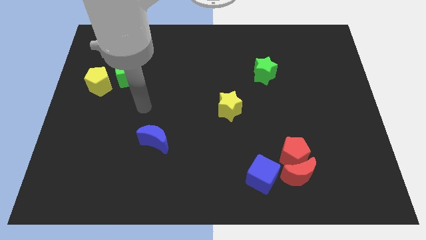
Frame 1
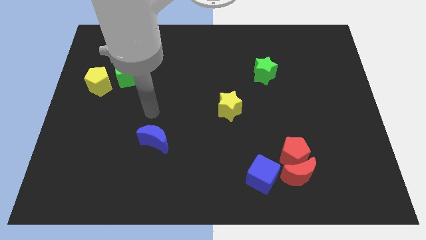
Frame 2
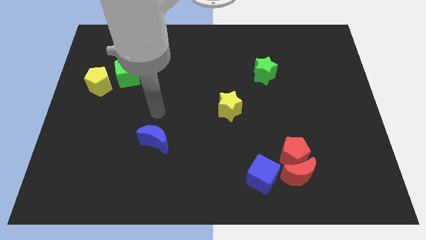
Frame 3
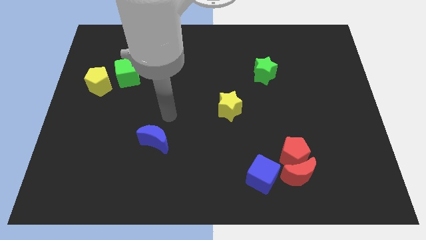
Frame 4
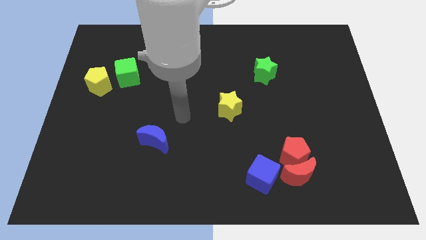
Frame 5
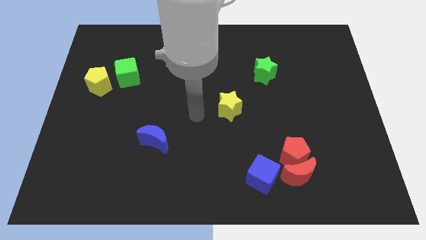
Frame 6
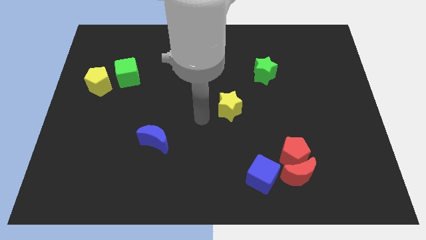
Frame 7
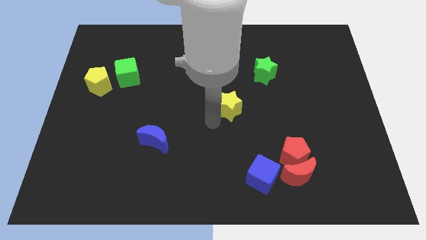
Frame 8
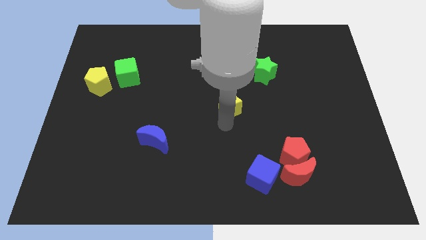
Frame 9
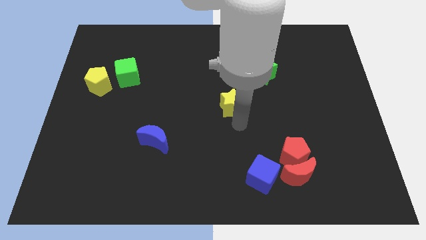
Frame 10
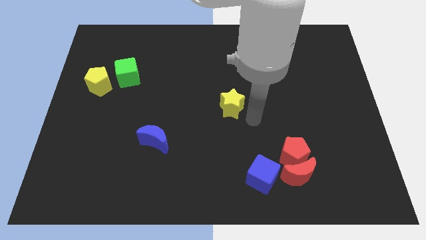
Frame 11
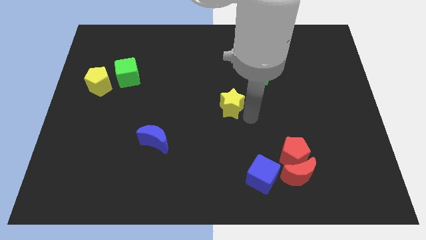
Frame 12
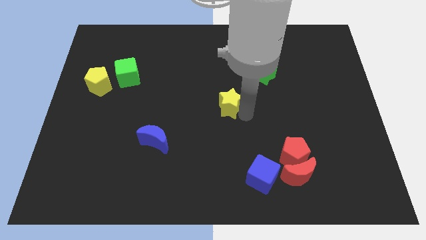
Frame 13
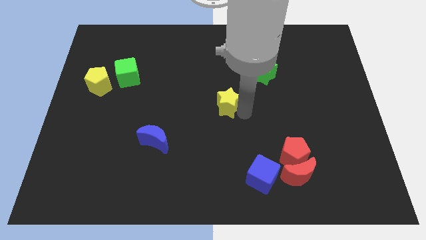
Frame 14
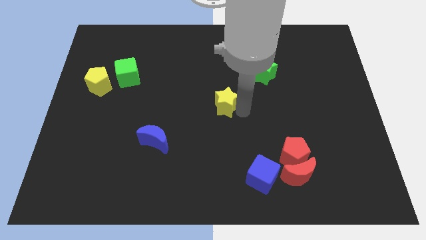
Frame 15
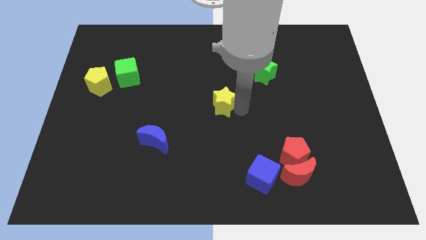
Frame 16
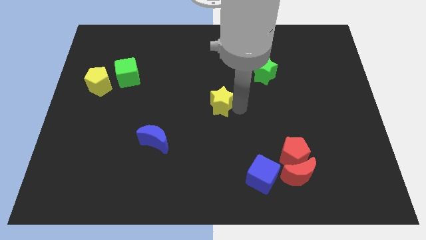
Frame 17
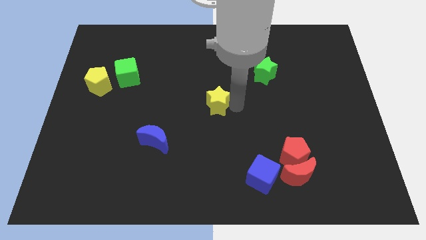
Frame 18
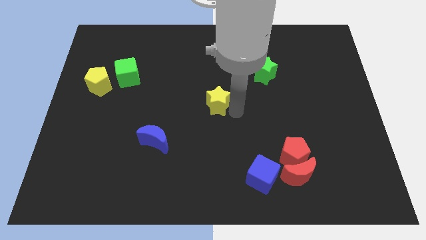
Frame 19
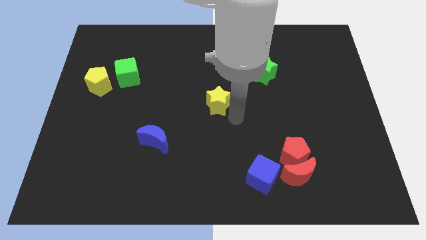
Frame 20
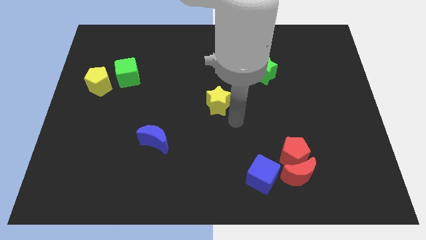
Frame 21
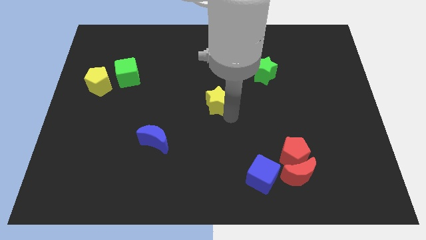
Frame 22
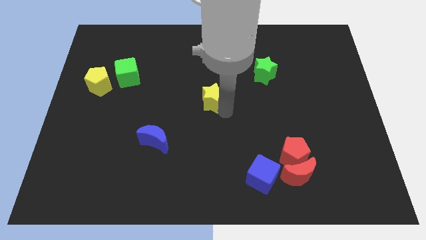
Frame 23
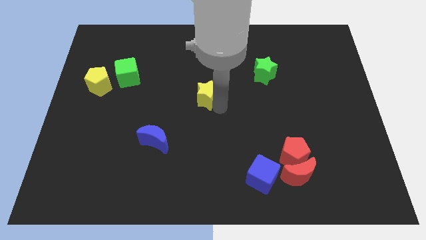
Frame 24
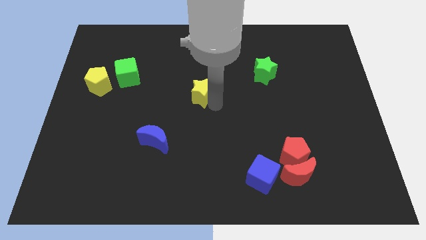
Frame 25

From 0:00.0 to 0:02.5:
slide the yellow star a little diagonally upwards and left

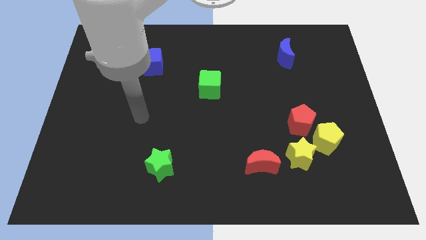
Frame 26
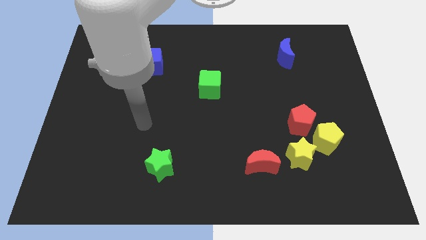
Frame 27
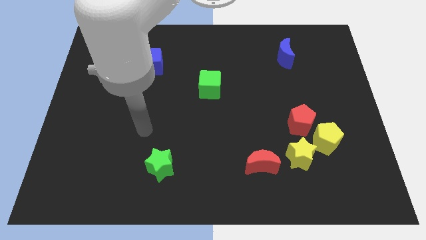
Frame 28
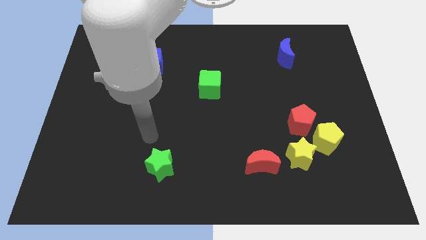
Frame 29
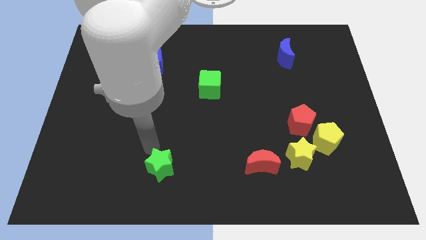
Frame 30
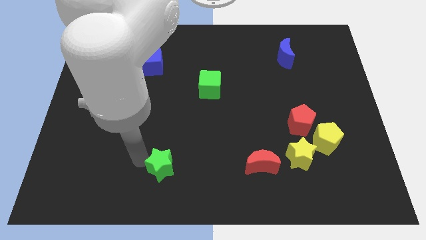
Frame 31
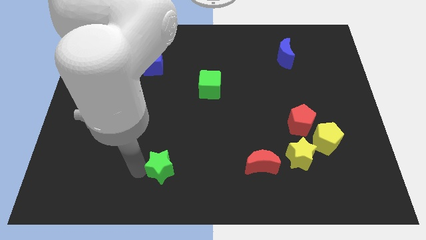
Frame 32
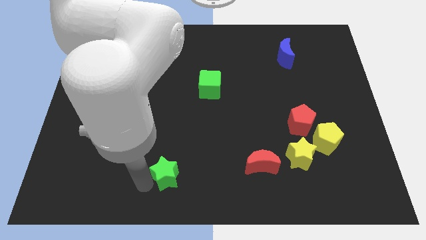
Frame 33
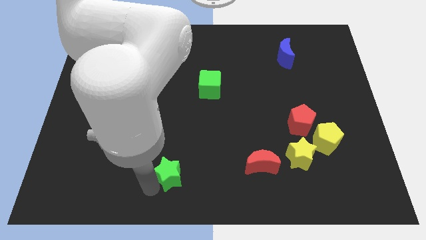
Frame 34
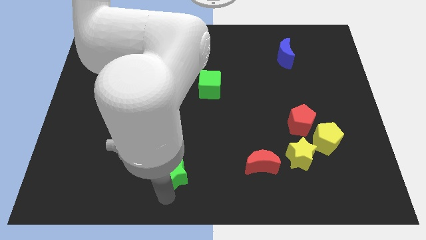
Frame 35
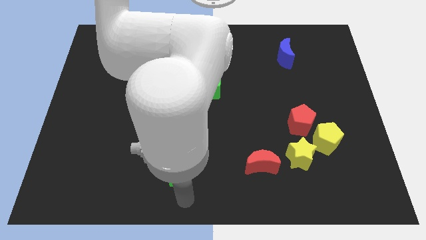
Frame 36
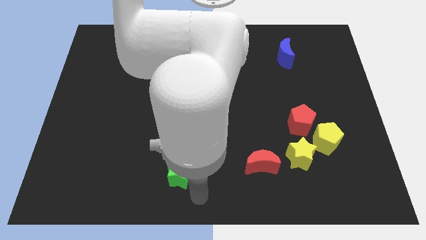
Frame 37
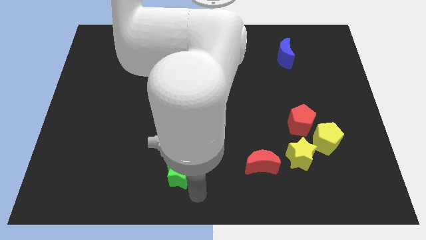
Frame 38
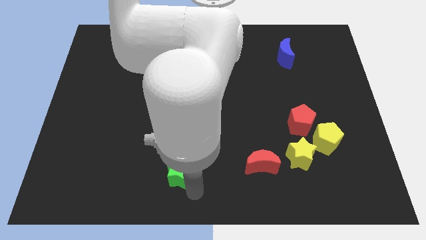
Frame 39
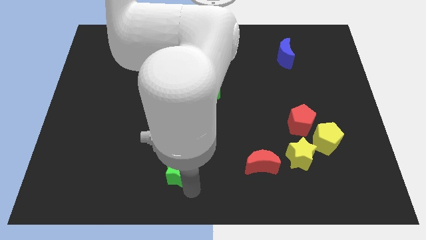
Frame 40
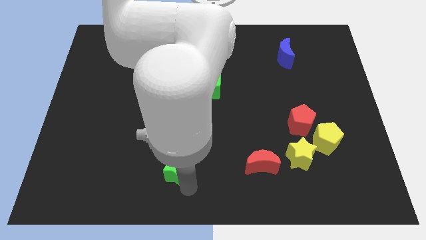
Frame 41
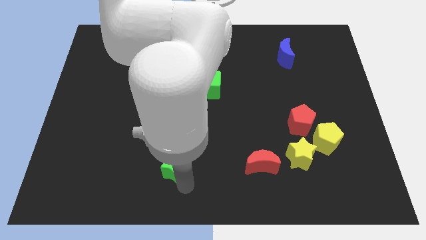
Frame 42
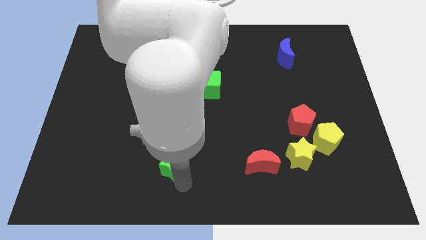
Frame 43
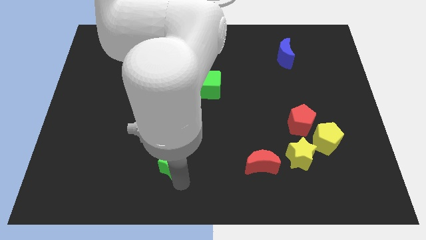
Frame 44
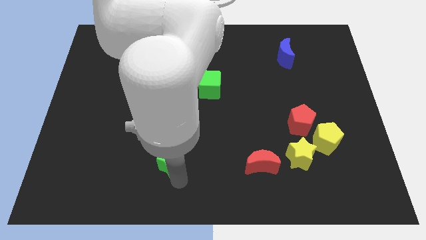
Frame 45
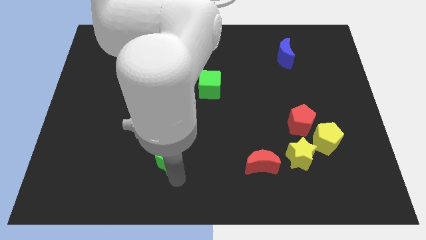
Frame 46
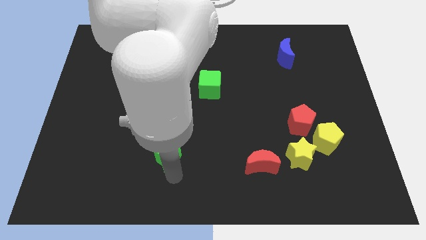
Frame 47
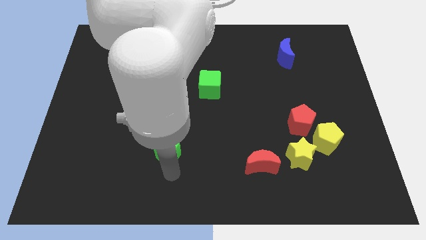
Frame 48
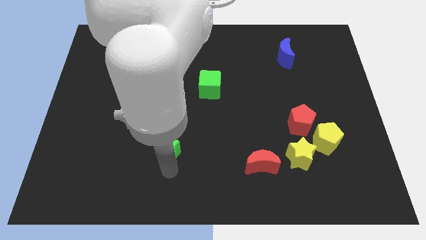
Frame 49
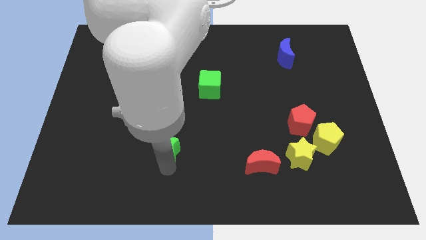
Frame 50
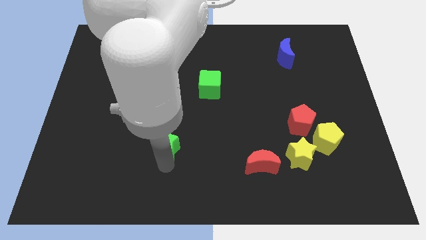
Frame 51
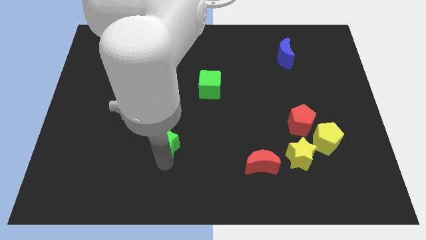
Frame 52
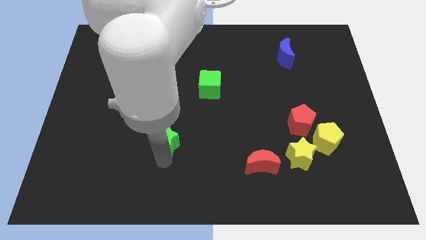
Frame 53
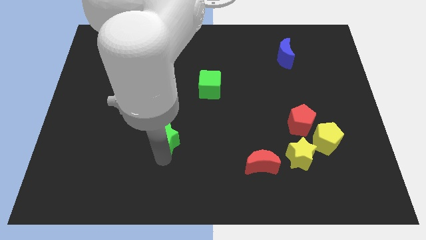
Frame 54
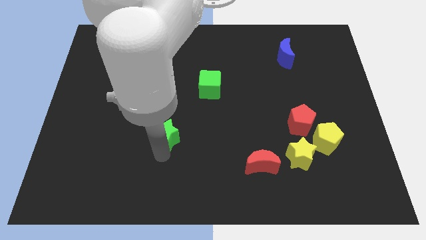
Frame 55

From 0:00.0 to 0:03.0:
push the green star upwards a little bit

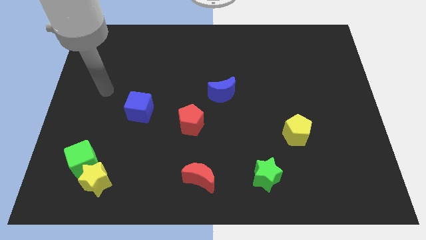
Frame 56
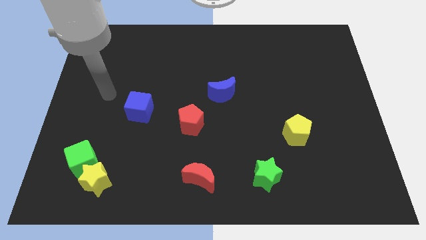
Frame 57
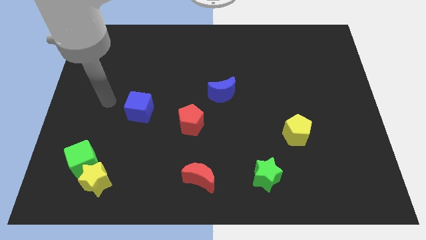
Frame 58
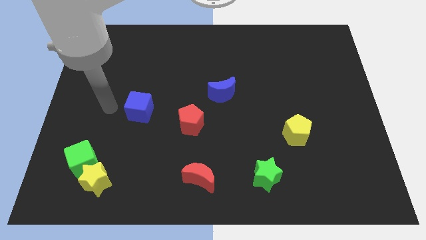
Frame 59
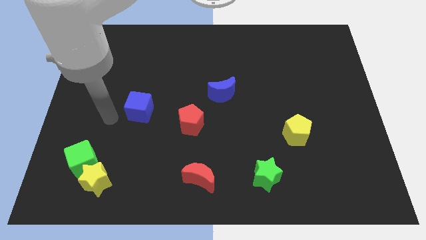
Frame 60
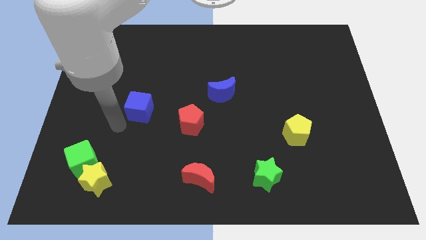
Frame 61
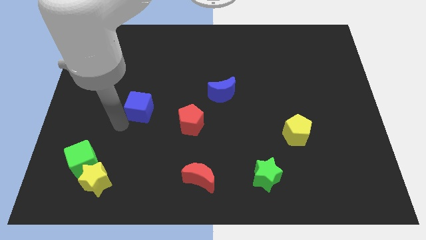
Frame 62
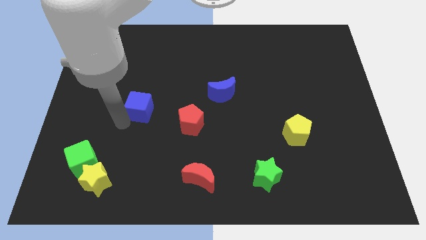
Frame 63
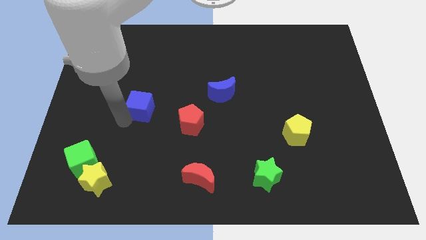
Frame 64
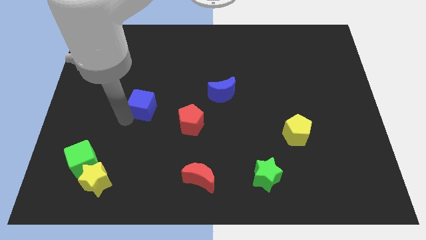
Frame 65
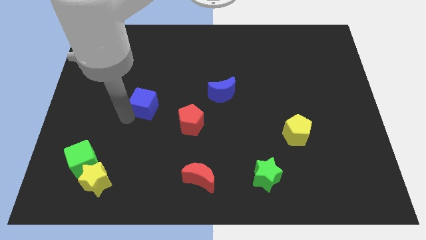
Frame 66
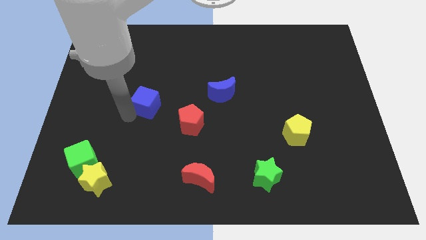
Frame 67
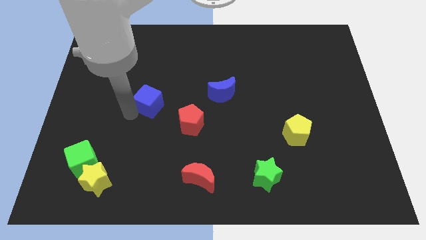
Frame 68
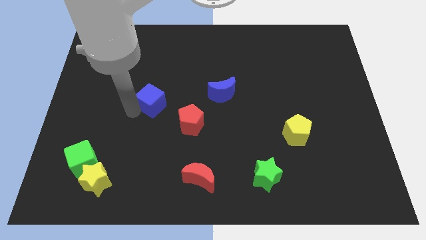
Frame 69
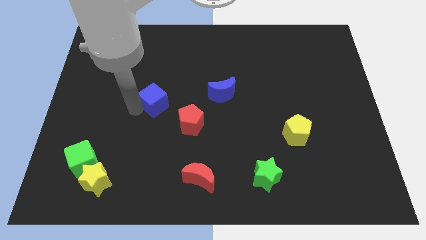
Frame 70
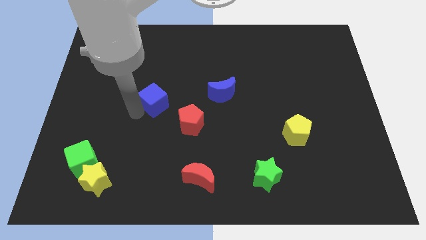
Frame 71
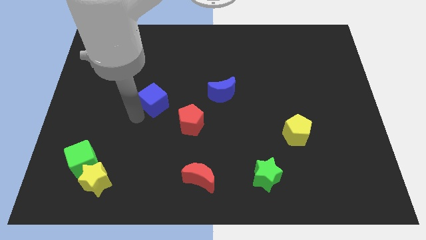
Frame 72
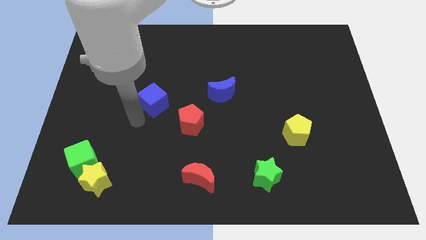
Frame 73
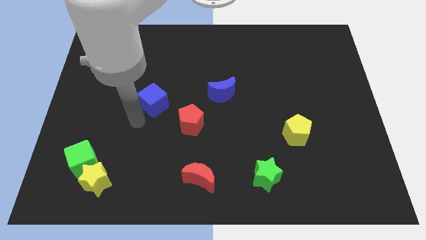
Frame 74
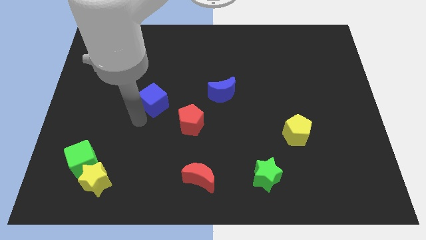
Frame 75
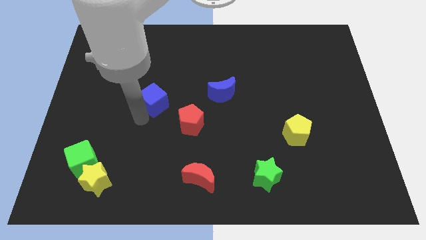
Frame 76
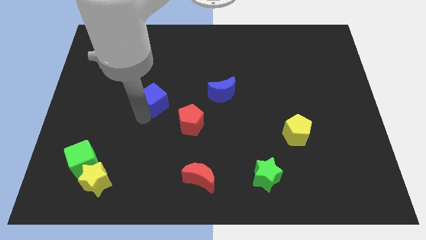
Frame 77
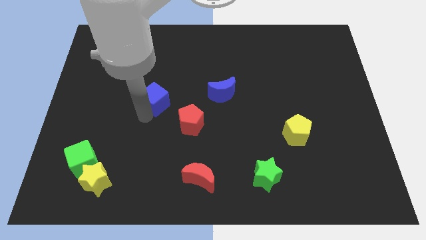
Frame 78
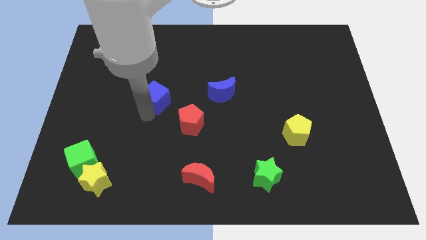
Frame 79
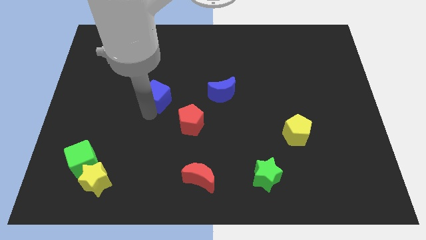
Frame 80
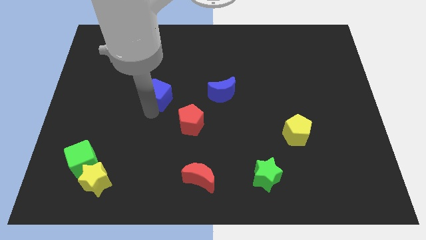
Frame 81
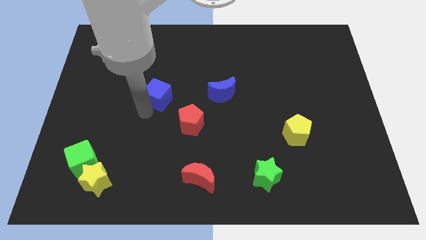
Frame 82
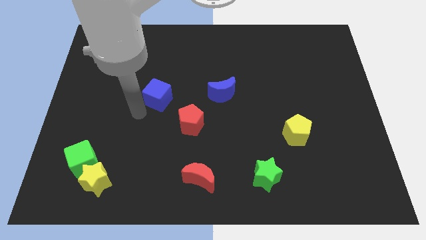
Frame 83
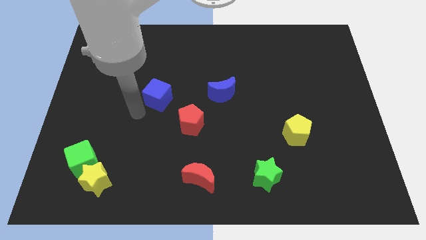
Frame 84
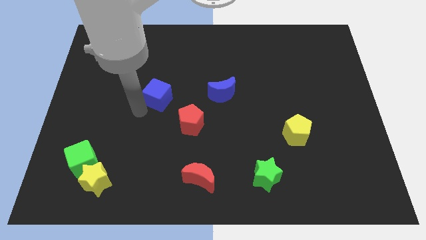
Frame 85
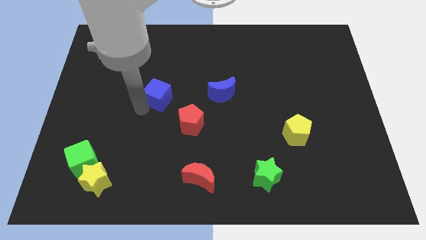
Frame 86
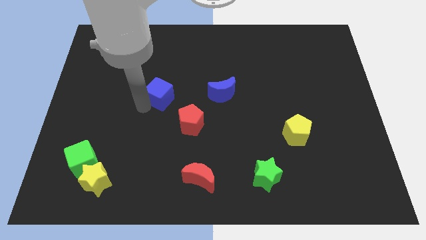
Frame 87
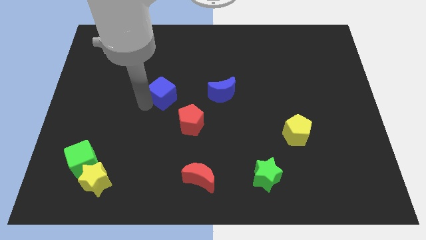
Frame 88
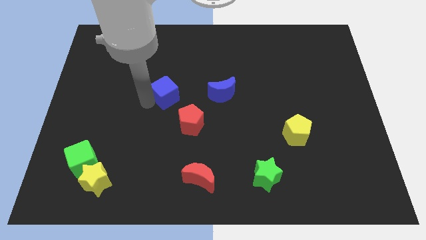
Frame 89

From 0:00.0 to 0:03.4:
push the blue cube up and right somewhat
